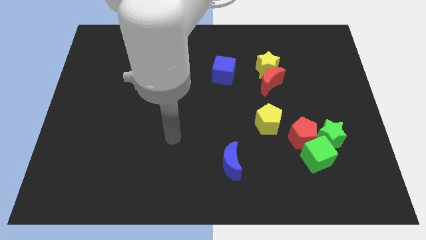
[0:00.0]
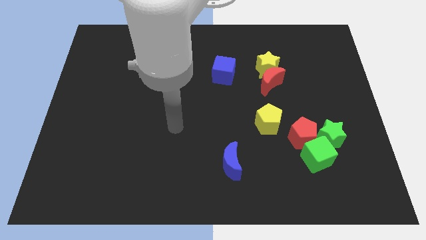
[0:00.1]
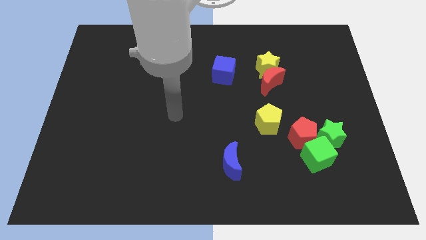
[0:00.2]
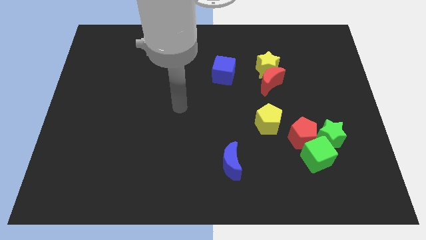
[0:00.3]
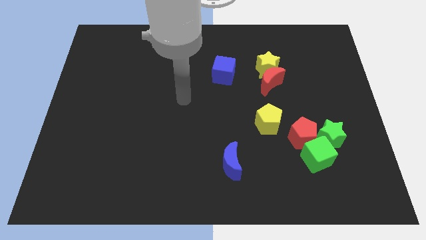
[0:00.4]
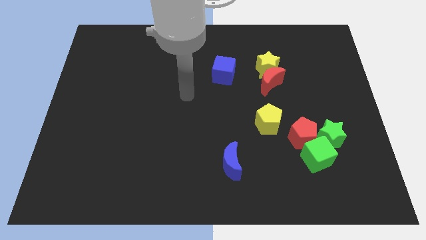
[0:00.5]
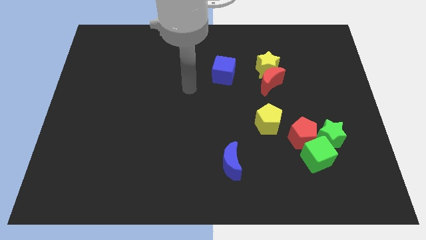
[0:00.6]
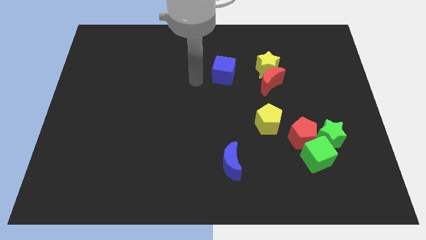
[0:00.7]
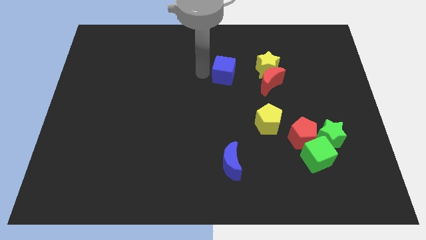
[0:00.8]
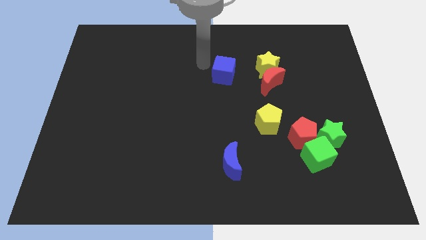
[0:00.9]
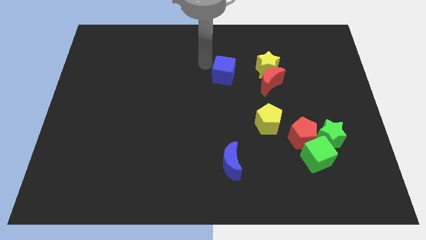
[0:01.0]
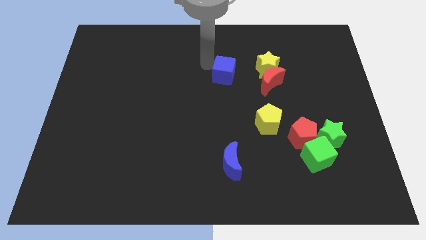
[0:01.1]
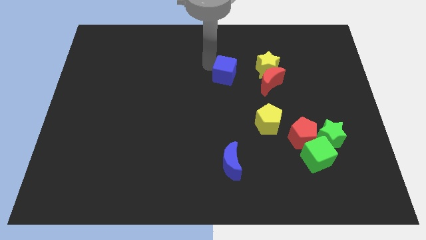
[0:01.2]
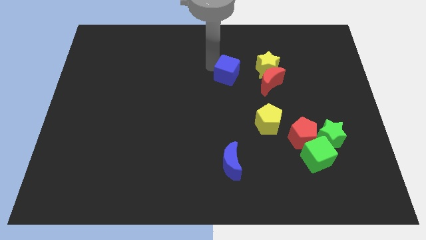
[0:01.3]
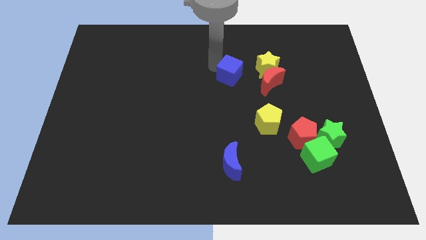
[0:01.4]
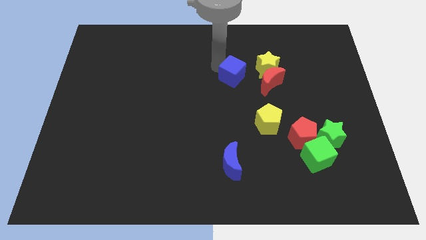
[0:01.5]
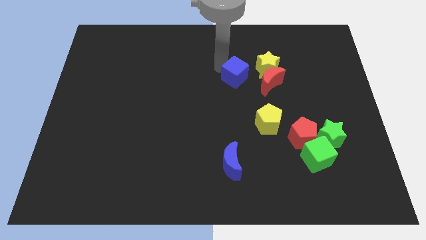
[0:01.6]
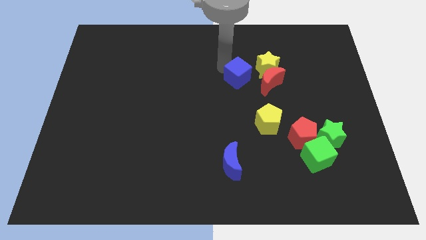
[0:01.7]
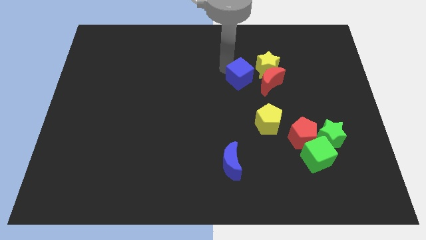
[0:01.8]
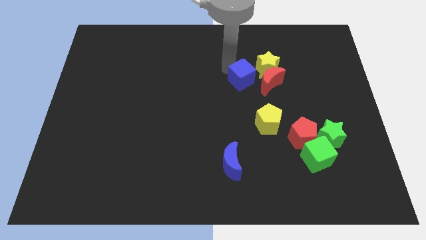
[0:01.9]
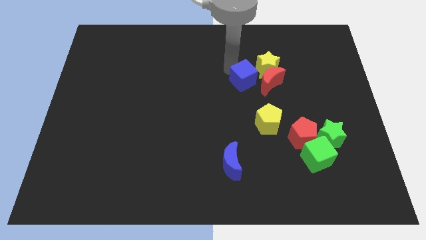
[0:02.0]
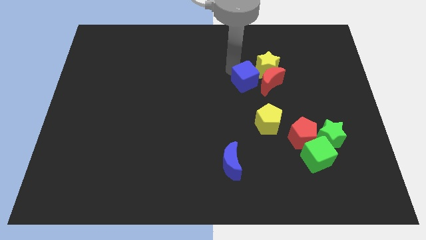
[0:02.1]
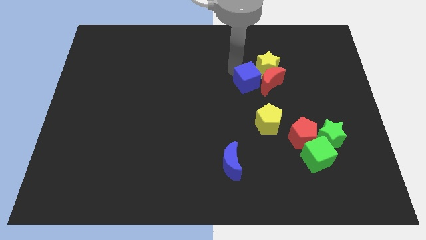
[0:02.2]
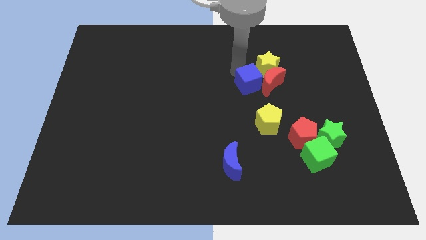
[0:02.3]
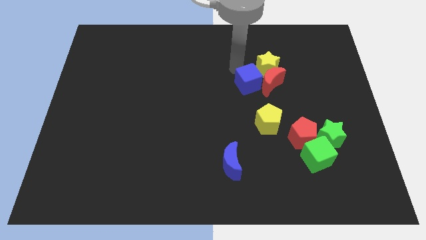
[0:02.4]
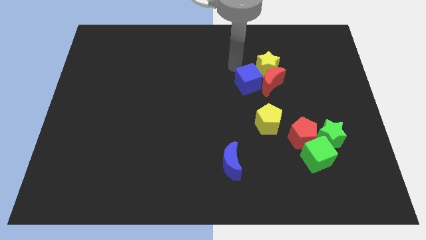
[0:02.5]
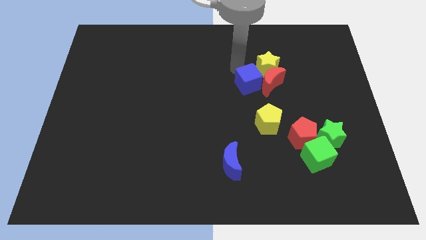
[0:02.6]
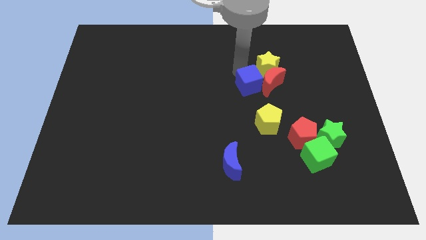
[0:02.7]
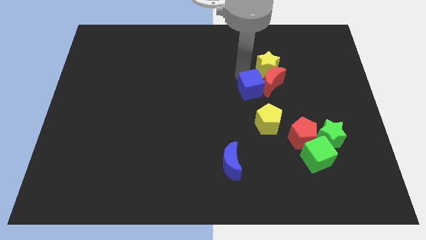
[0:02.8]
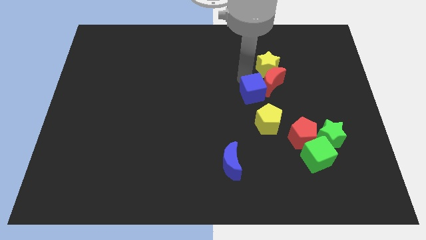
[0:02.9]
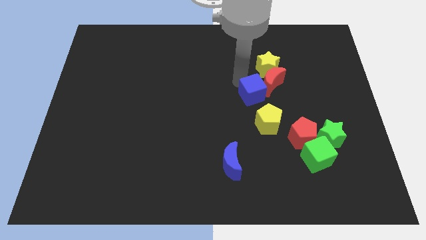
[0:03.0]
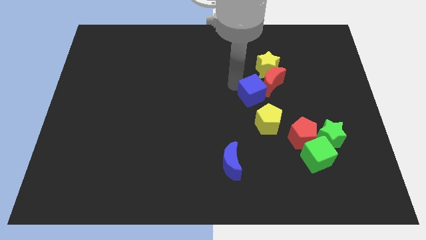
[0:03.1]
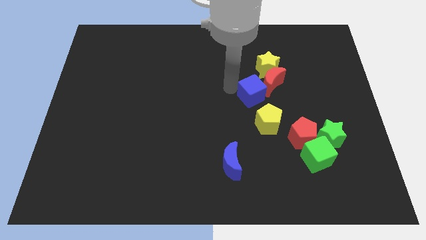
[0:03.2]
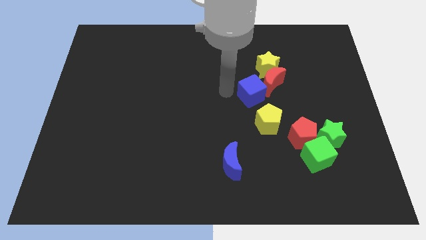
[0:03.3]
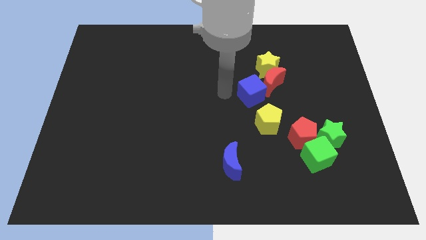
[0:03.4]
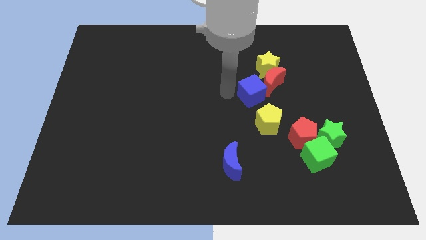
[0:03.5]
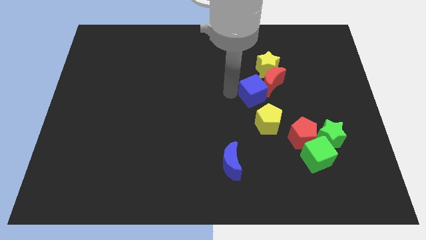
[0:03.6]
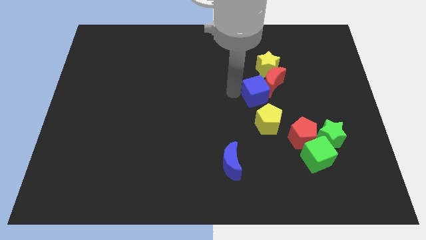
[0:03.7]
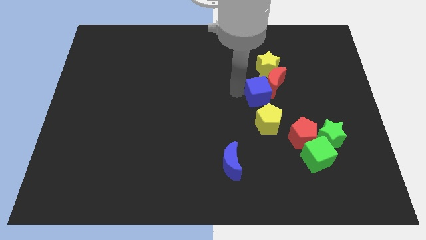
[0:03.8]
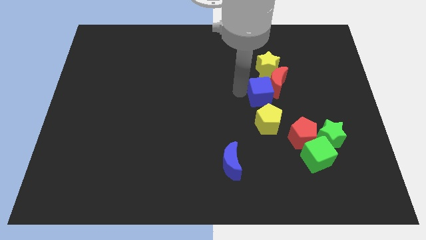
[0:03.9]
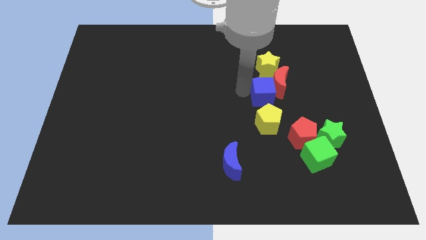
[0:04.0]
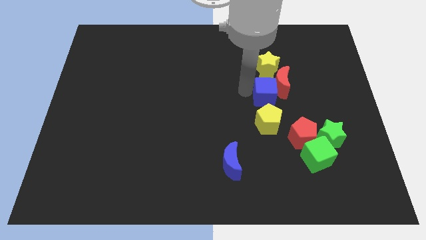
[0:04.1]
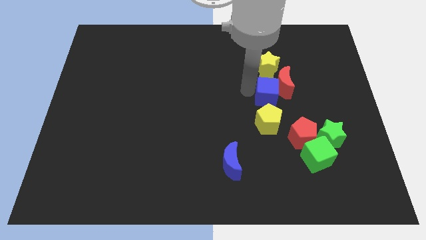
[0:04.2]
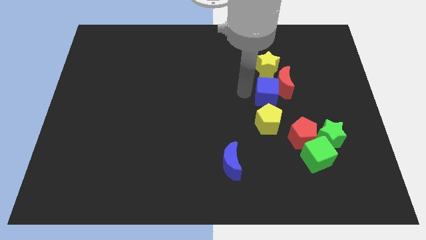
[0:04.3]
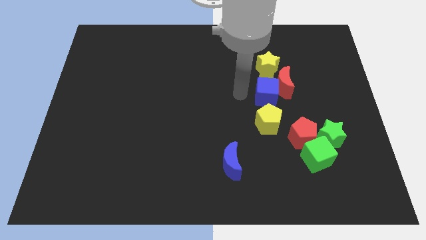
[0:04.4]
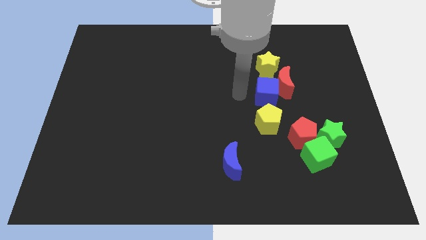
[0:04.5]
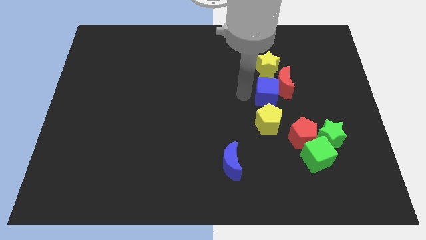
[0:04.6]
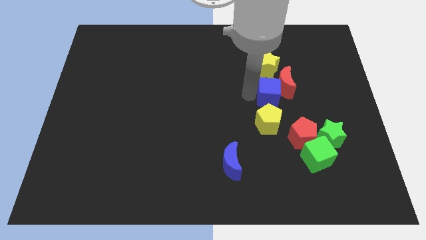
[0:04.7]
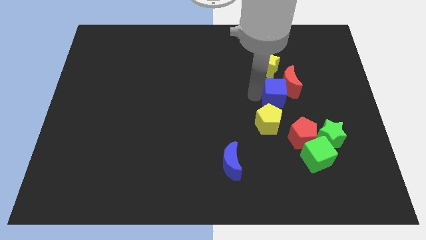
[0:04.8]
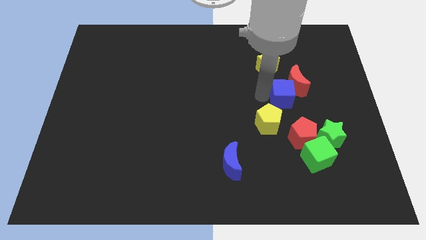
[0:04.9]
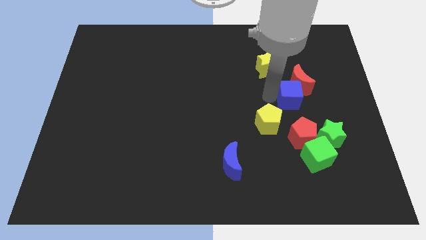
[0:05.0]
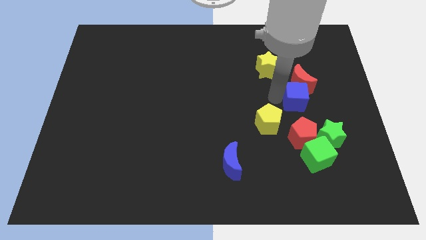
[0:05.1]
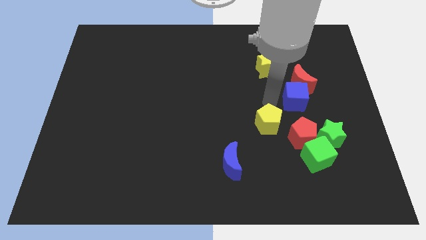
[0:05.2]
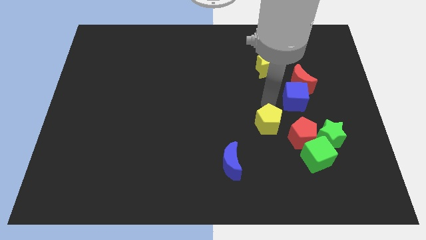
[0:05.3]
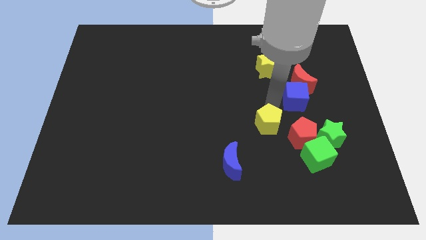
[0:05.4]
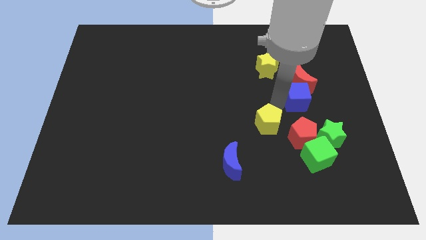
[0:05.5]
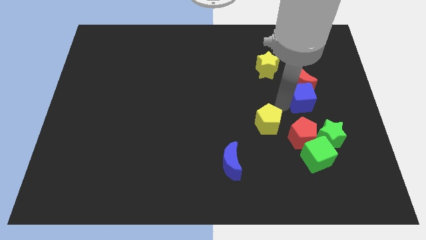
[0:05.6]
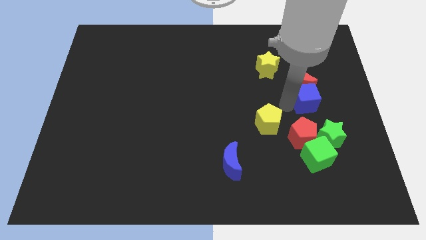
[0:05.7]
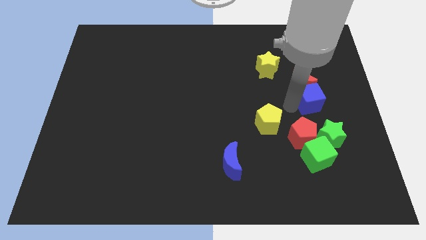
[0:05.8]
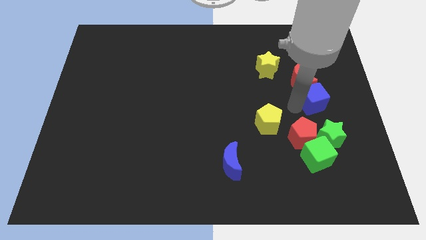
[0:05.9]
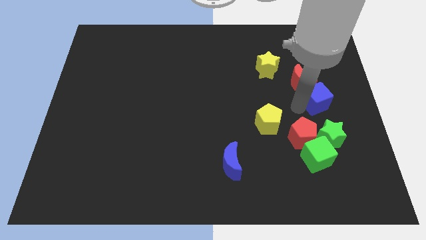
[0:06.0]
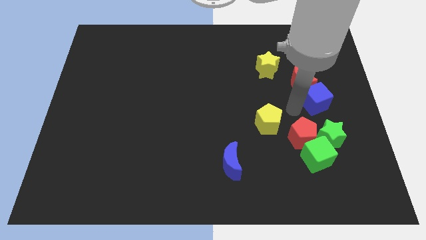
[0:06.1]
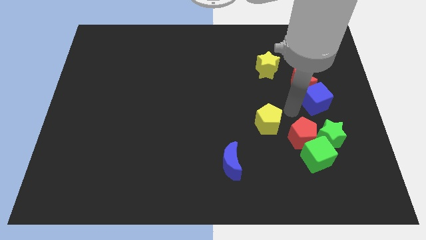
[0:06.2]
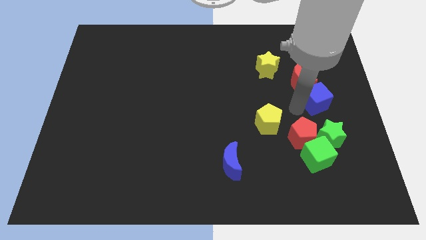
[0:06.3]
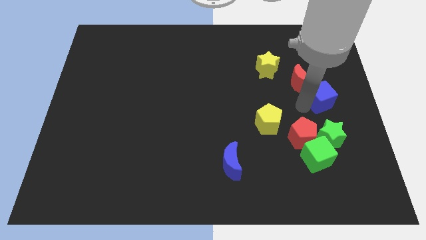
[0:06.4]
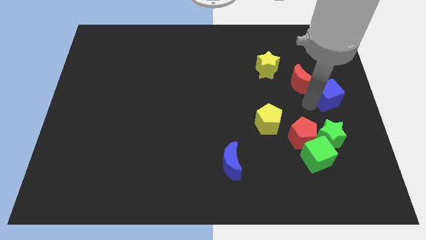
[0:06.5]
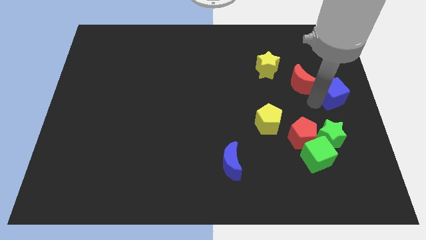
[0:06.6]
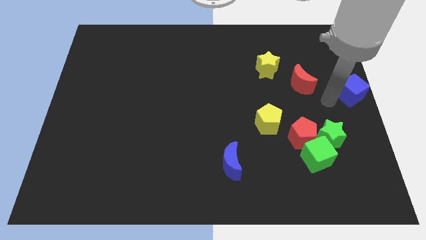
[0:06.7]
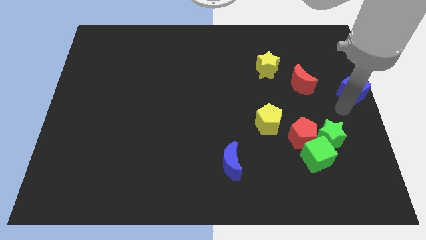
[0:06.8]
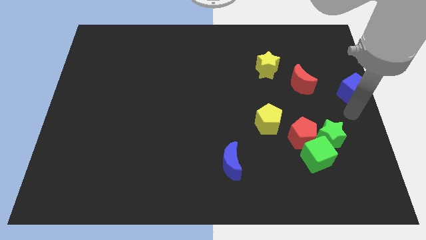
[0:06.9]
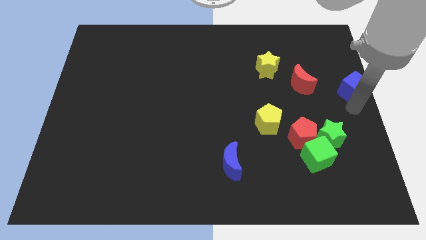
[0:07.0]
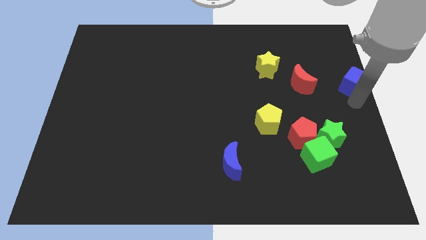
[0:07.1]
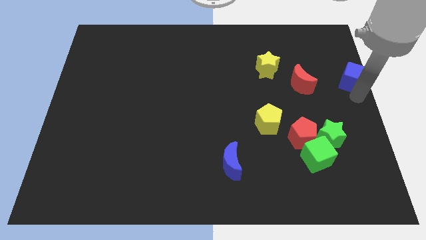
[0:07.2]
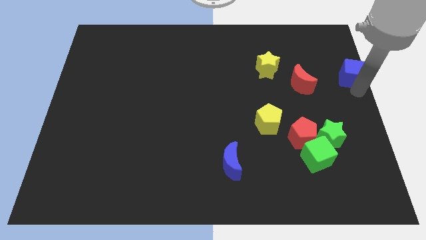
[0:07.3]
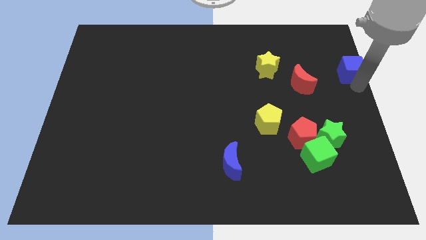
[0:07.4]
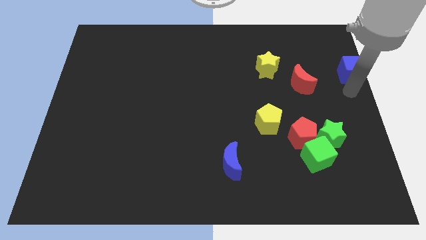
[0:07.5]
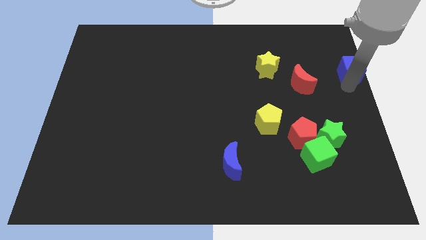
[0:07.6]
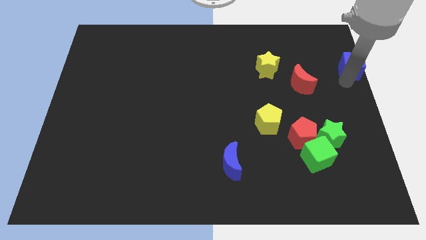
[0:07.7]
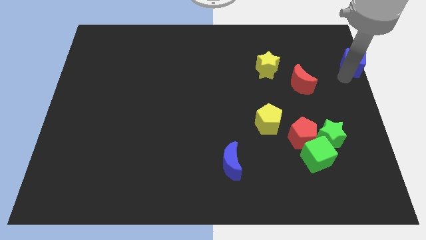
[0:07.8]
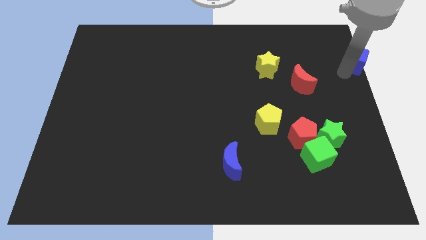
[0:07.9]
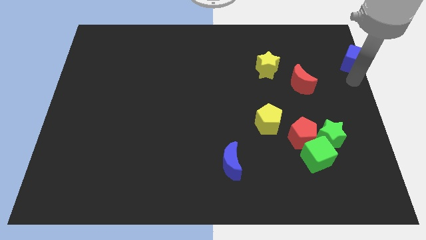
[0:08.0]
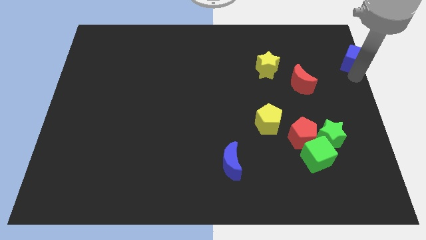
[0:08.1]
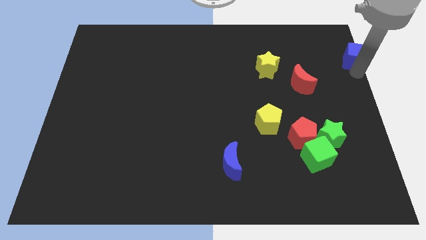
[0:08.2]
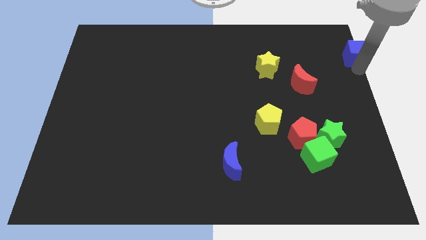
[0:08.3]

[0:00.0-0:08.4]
push the blue cube to the top right corner

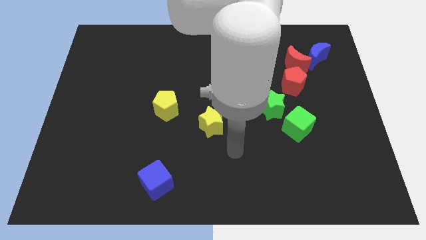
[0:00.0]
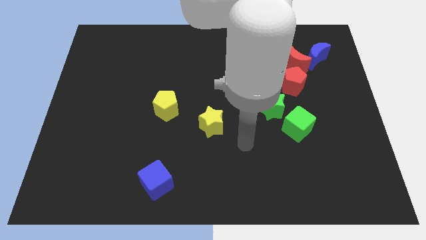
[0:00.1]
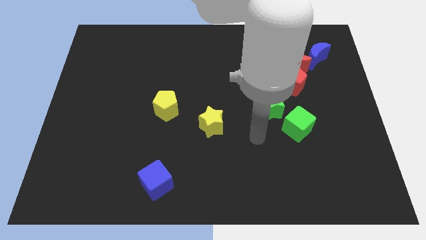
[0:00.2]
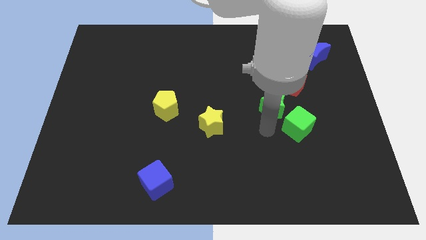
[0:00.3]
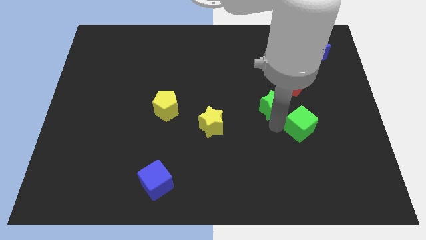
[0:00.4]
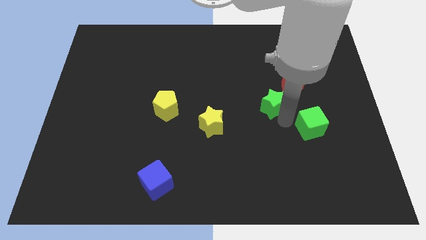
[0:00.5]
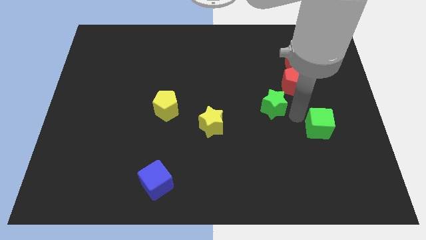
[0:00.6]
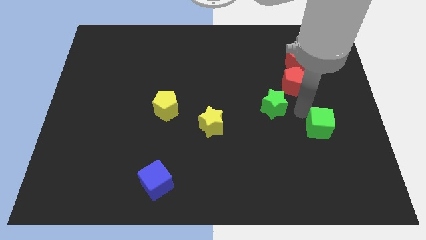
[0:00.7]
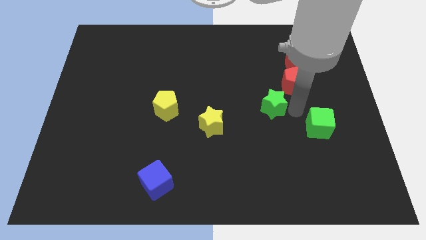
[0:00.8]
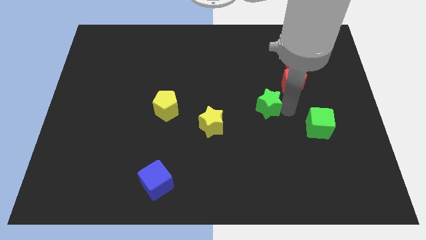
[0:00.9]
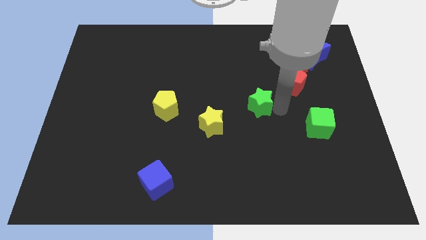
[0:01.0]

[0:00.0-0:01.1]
move the green star to the center
